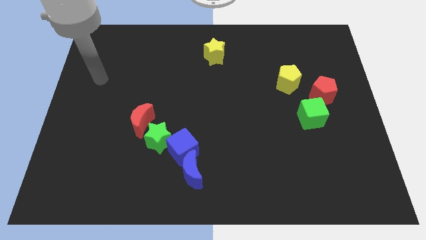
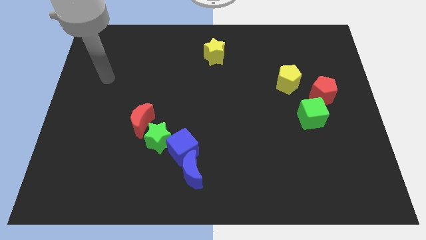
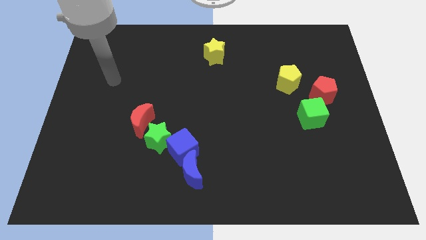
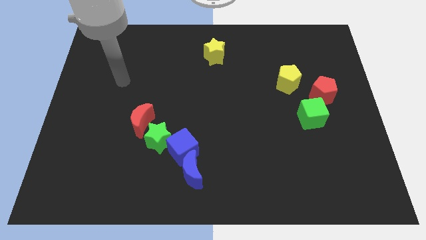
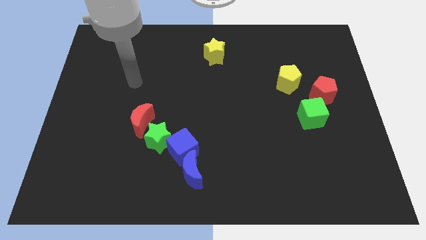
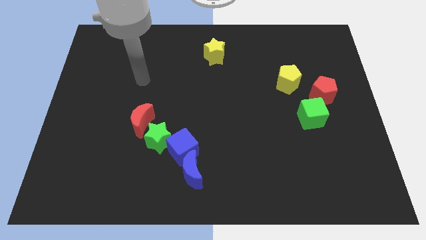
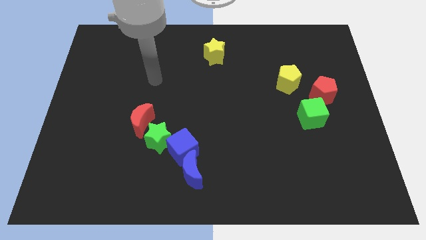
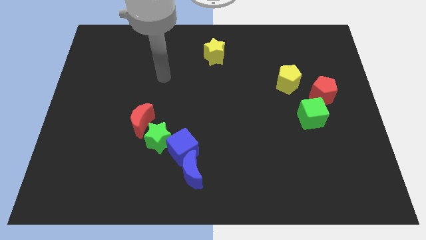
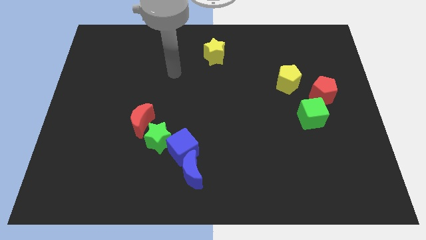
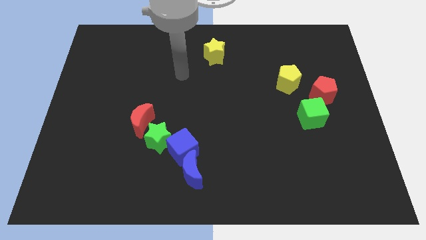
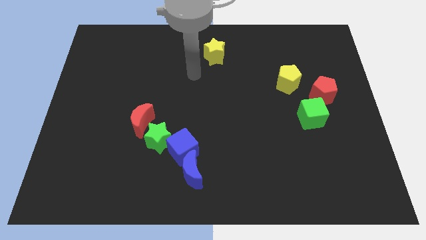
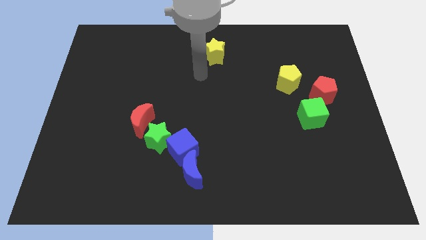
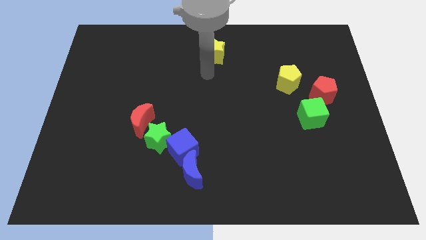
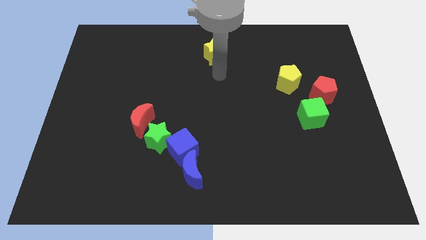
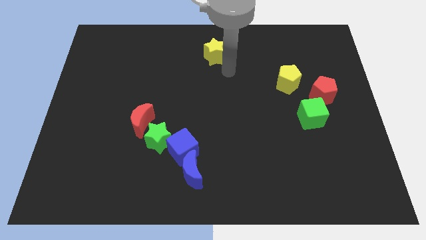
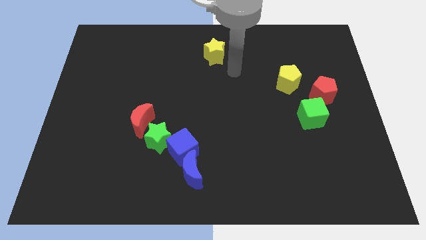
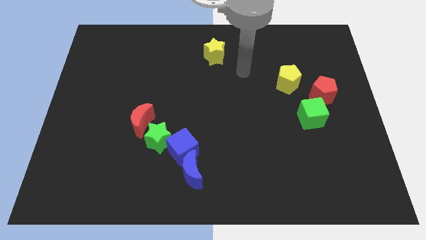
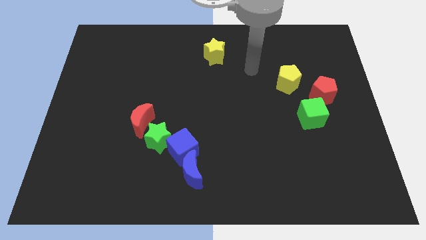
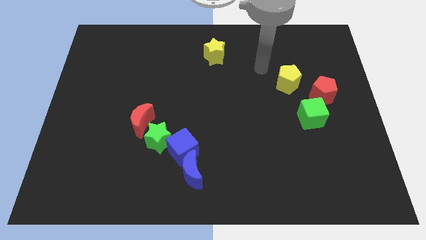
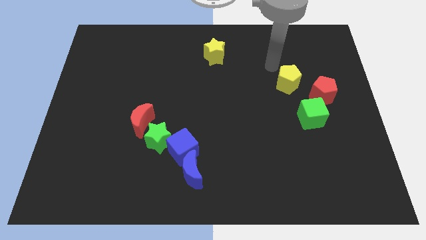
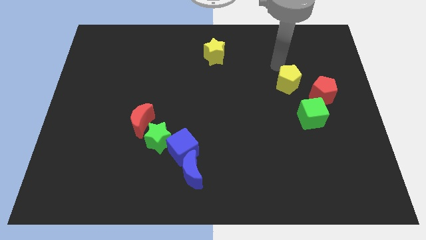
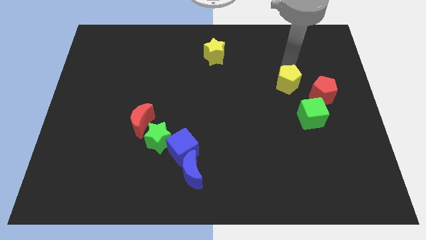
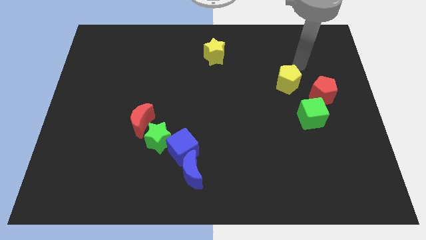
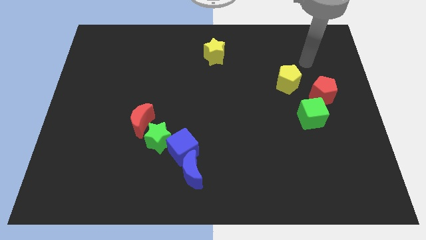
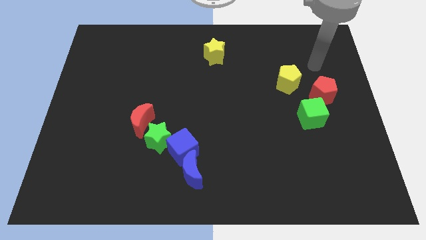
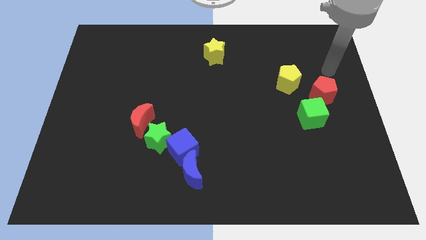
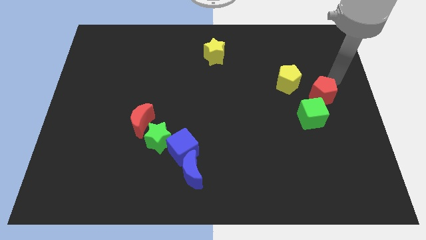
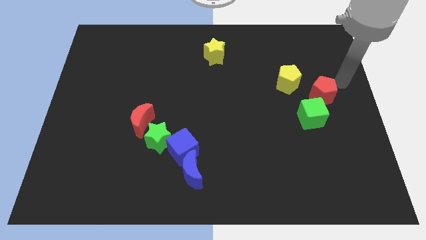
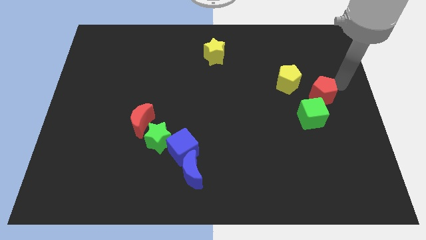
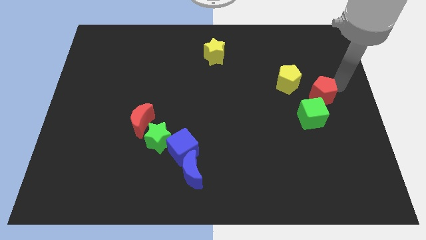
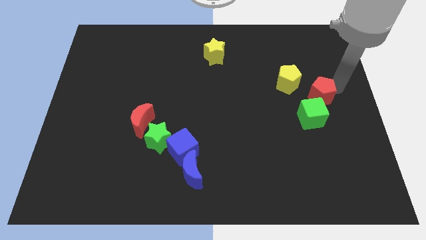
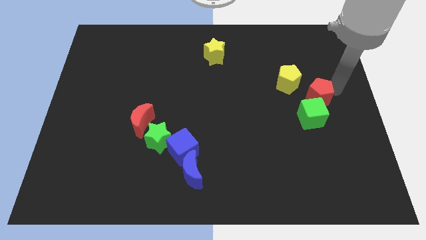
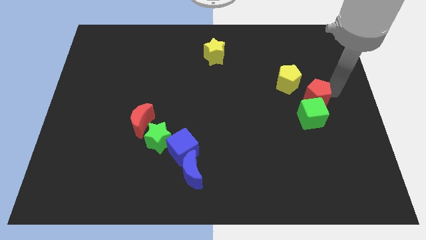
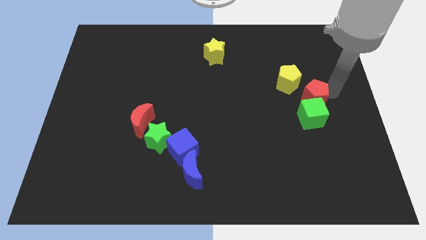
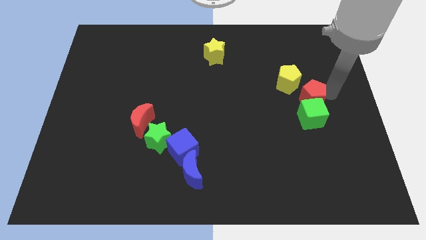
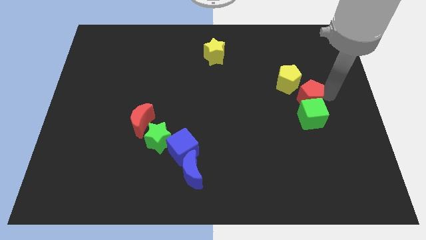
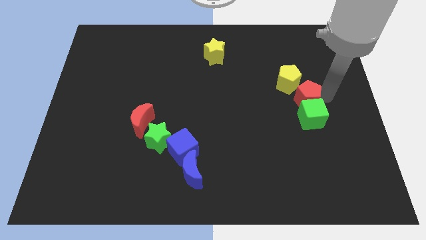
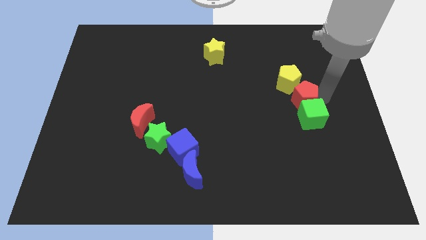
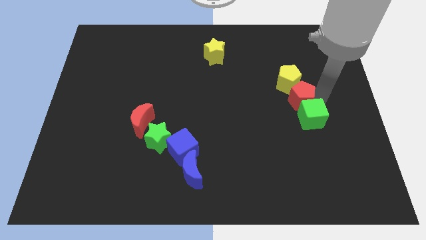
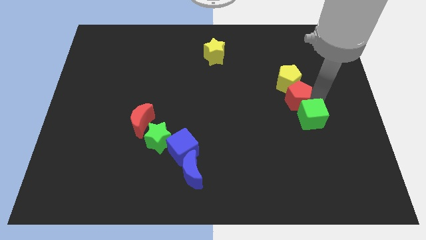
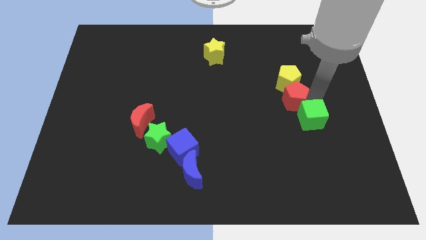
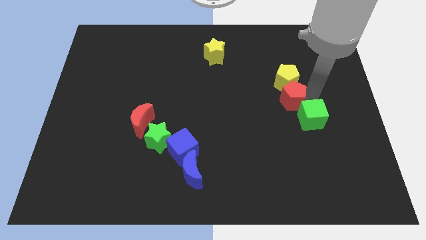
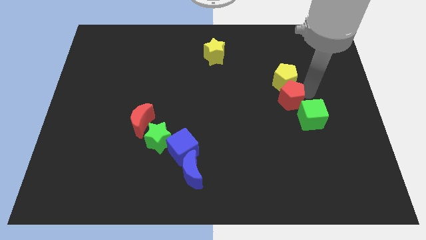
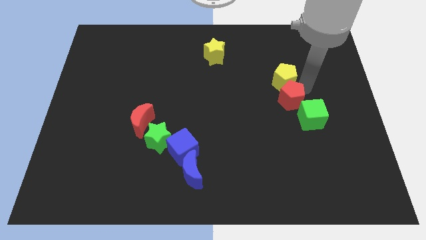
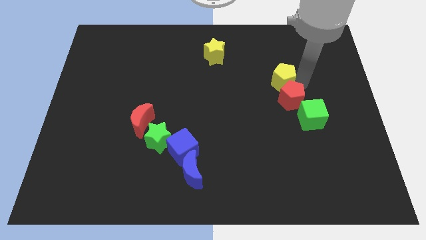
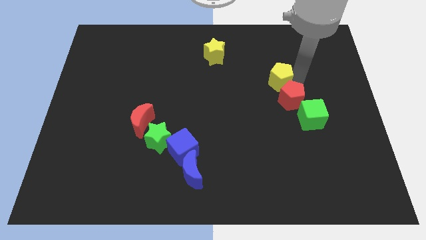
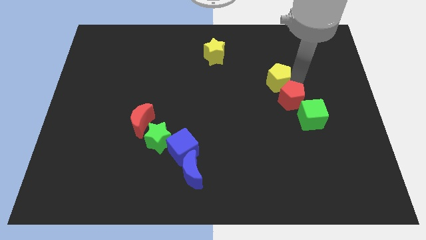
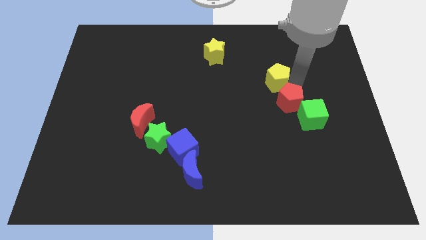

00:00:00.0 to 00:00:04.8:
slide the red pentagon downwards and then to the left slightly

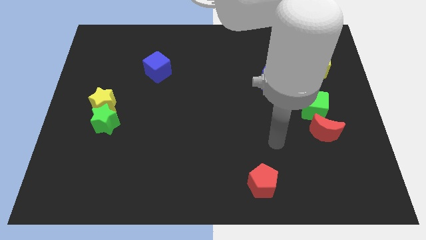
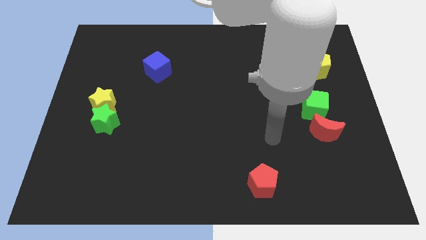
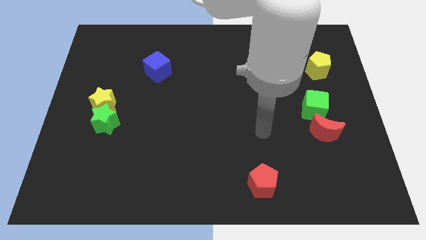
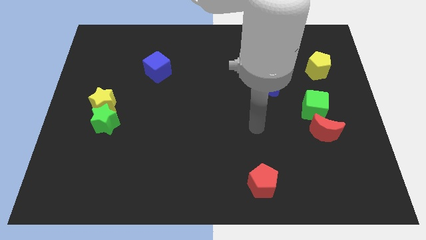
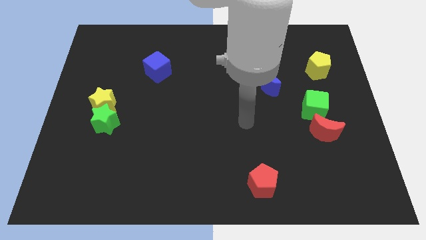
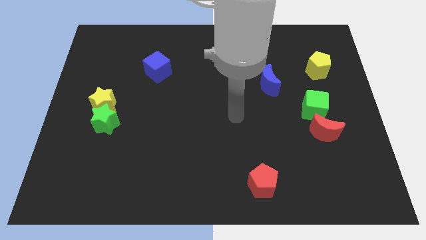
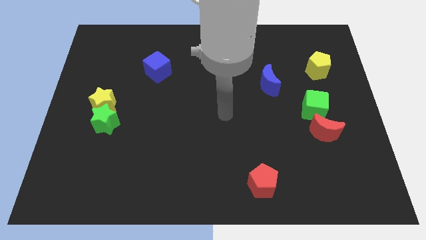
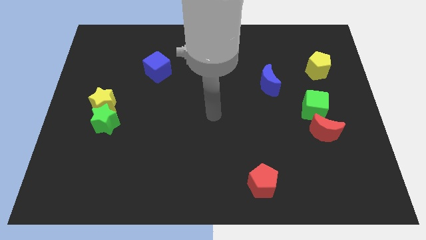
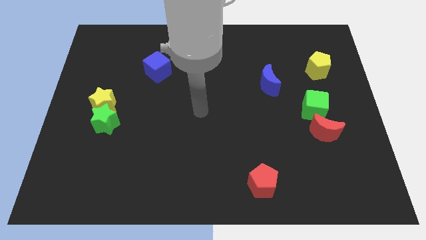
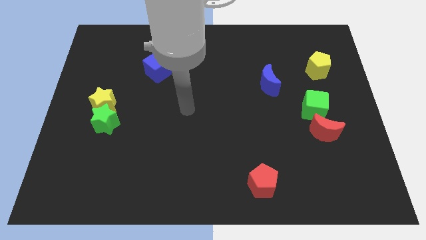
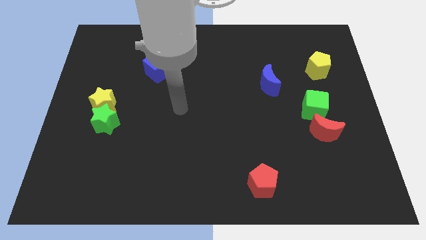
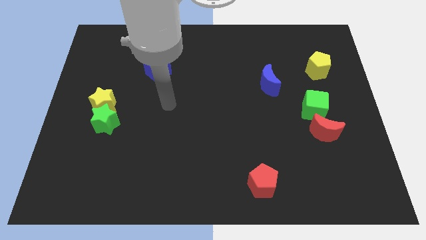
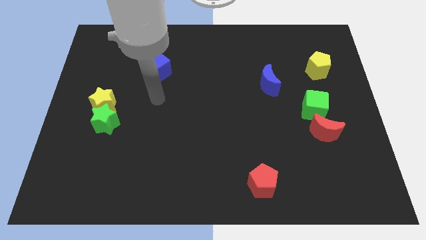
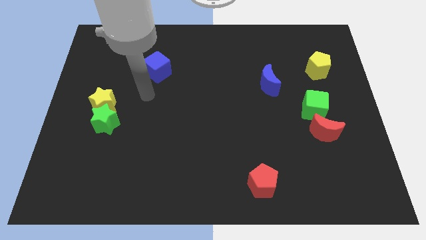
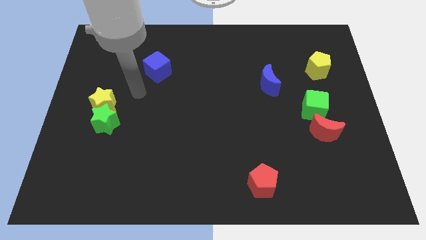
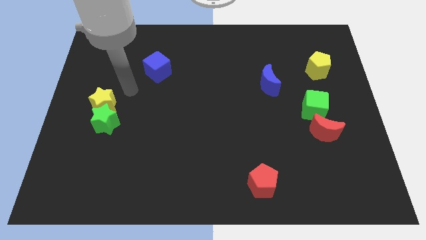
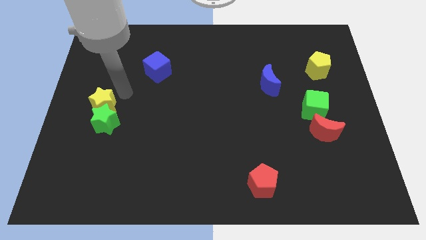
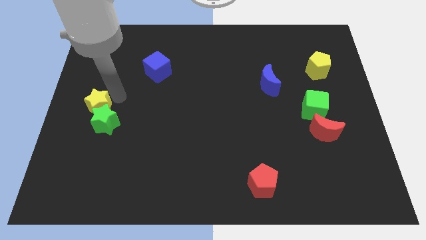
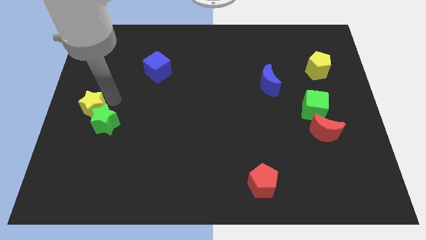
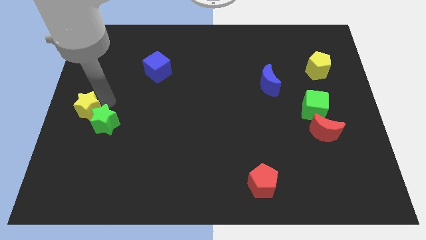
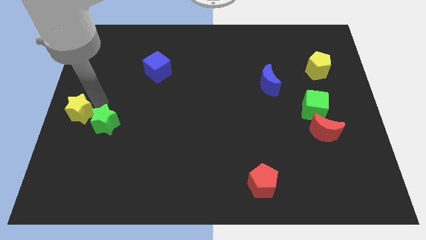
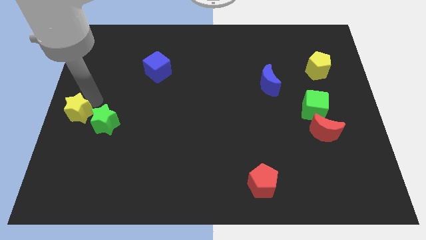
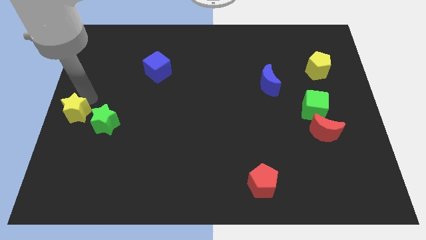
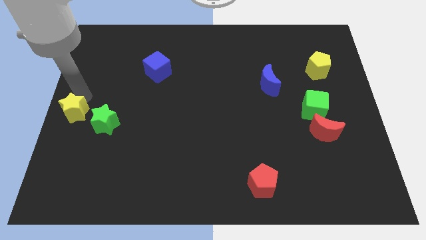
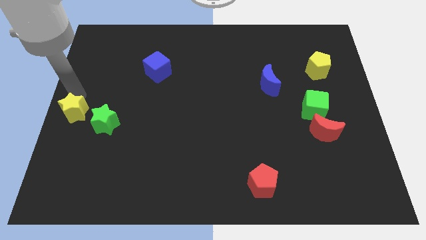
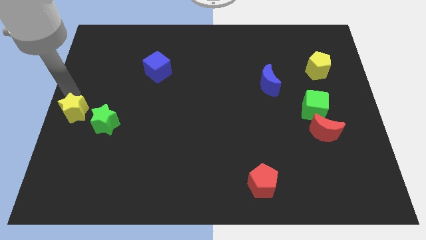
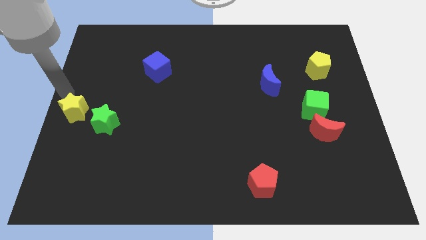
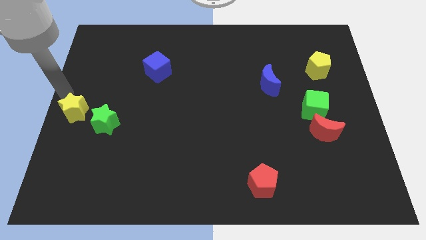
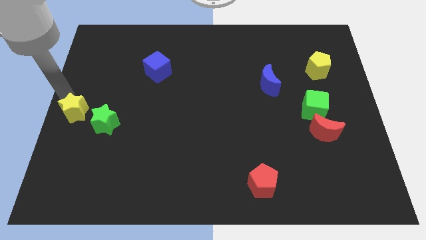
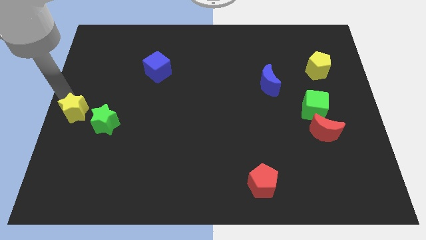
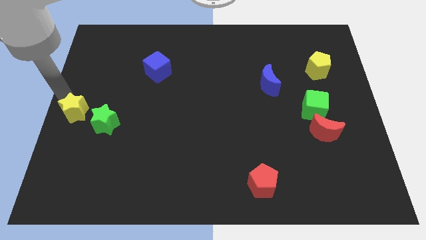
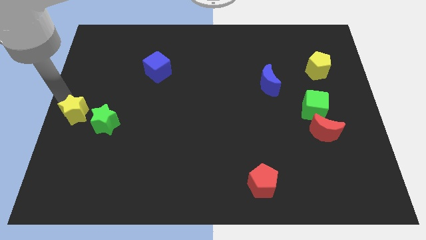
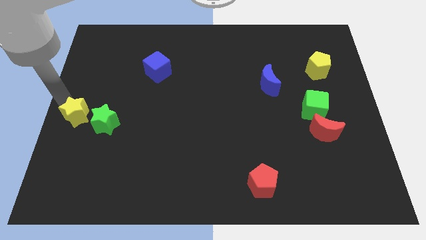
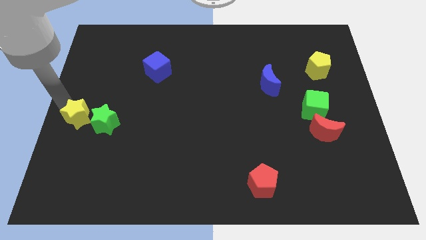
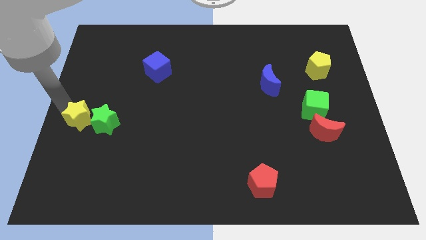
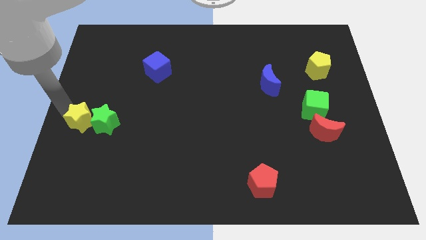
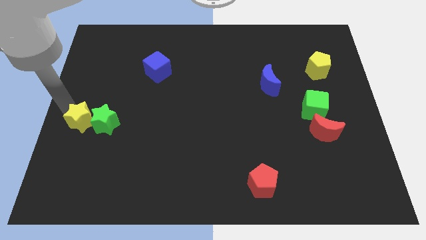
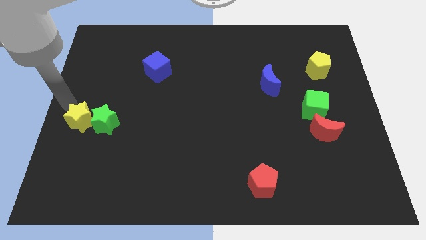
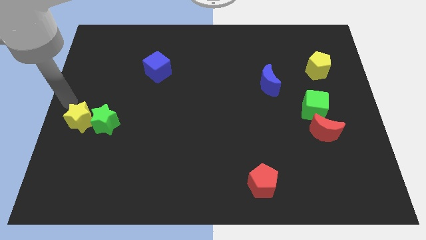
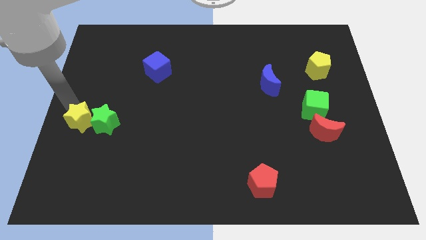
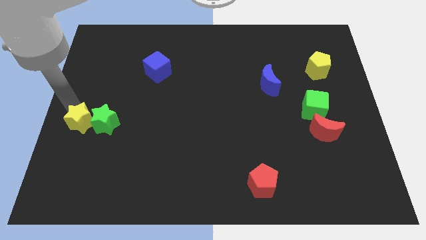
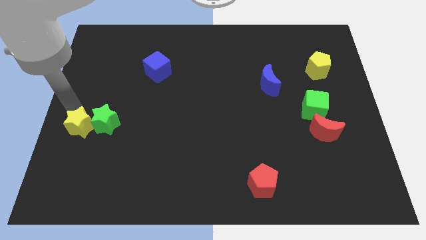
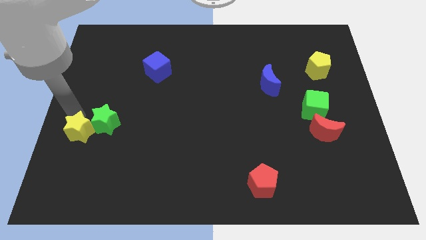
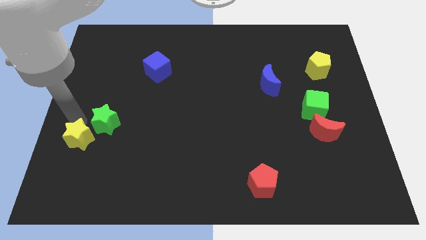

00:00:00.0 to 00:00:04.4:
slightly slide the yellow star down
